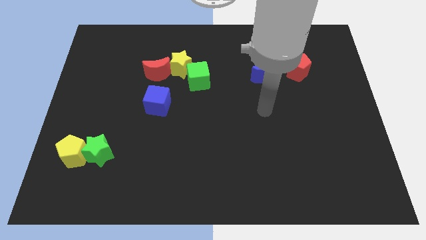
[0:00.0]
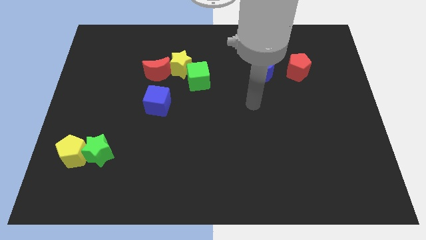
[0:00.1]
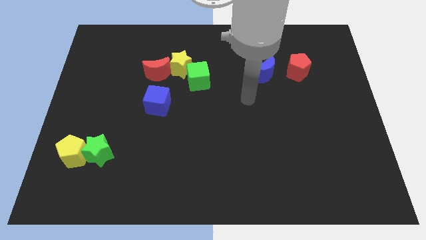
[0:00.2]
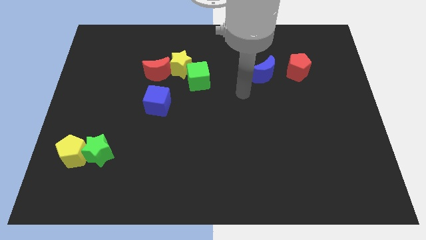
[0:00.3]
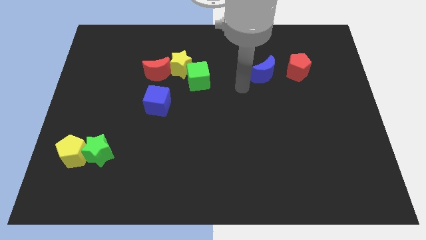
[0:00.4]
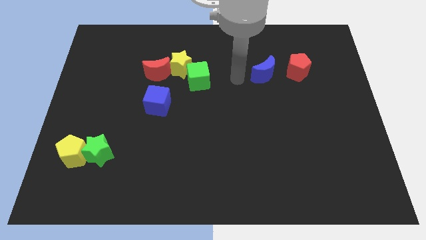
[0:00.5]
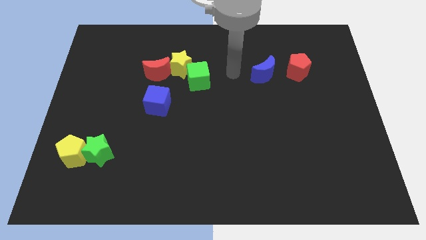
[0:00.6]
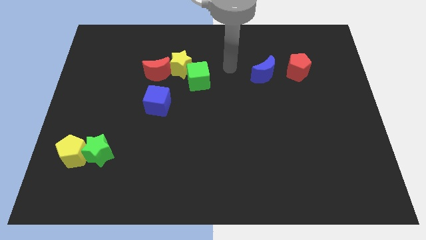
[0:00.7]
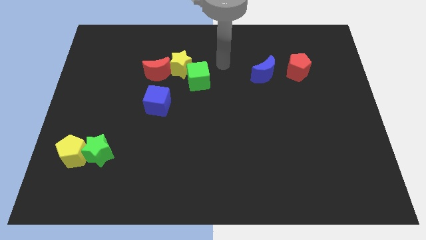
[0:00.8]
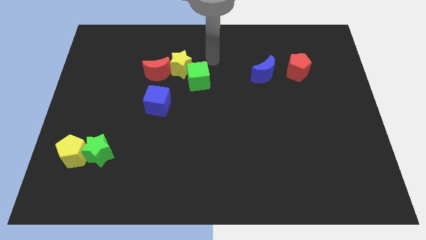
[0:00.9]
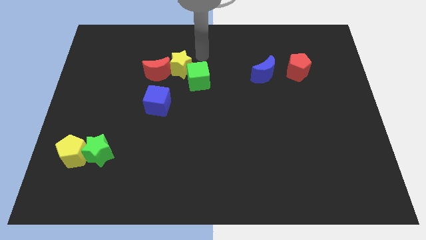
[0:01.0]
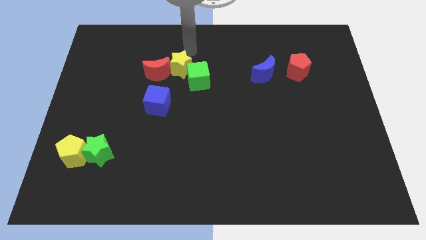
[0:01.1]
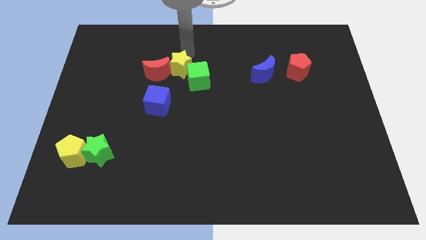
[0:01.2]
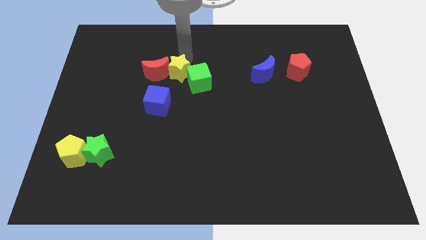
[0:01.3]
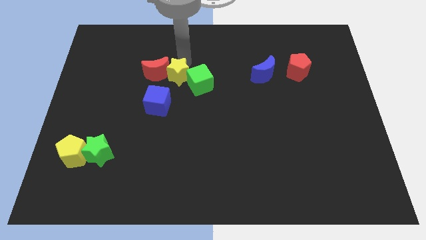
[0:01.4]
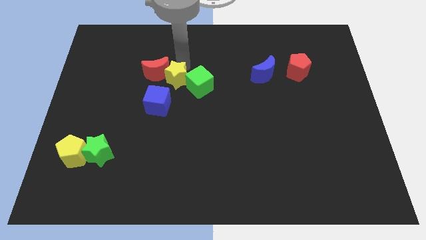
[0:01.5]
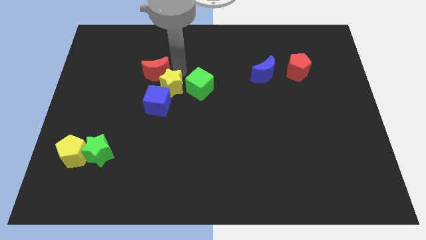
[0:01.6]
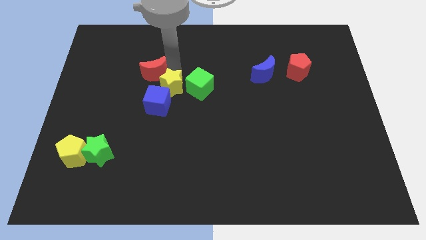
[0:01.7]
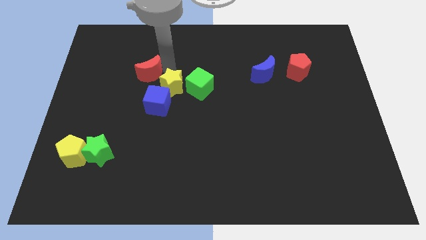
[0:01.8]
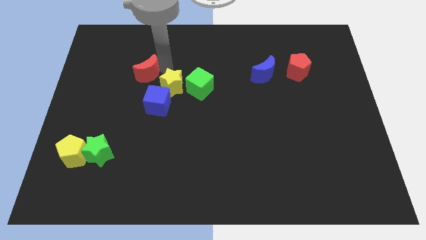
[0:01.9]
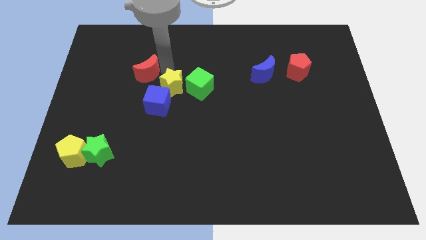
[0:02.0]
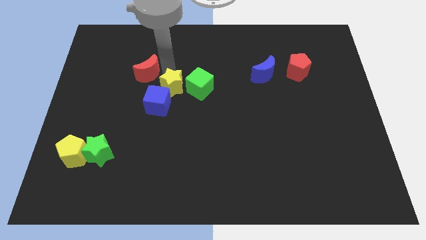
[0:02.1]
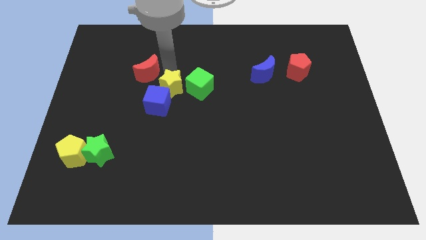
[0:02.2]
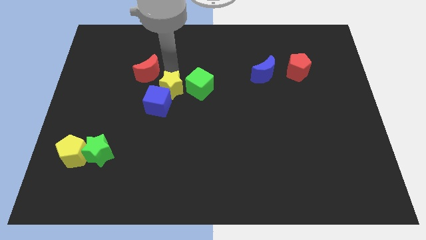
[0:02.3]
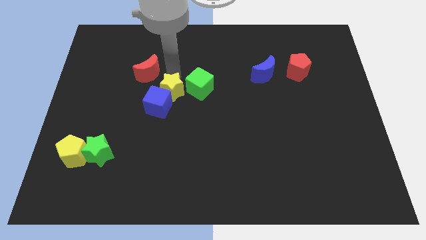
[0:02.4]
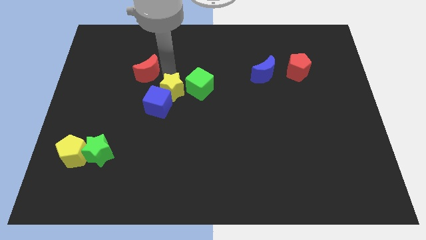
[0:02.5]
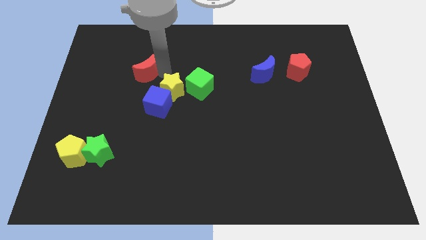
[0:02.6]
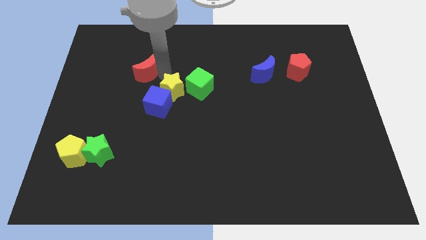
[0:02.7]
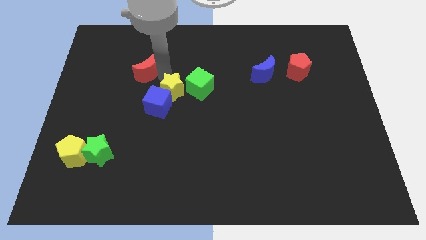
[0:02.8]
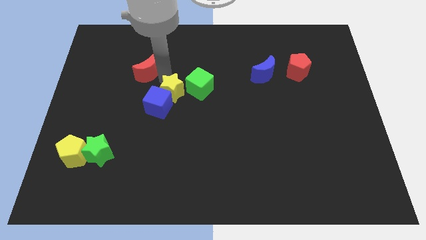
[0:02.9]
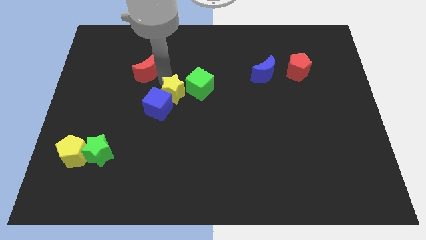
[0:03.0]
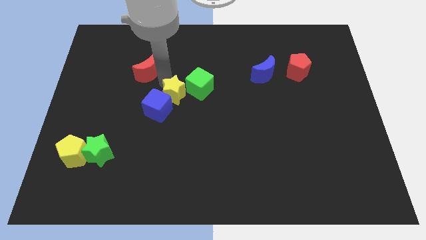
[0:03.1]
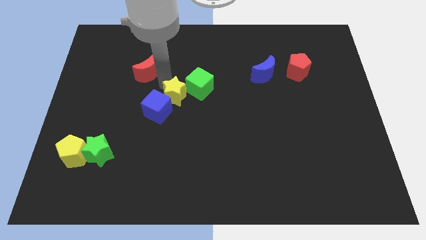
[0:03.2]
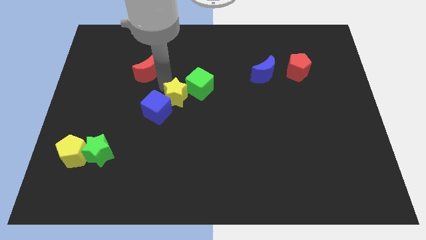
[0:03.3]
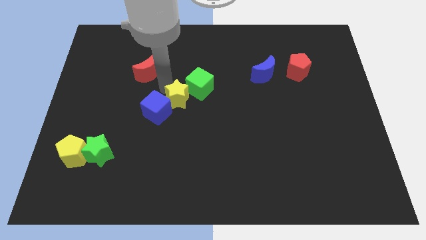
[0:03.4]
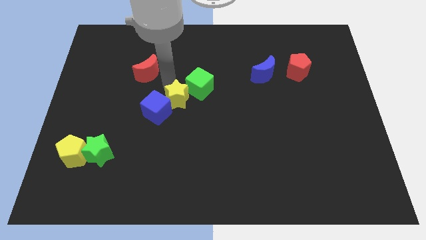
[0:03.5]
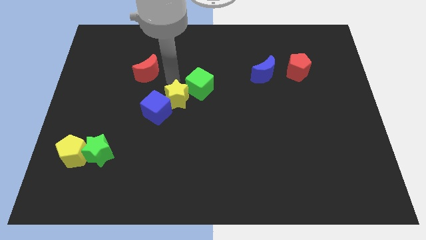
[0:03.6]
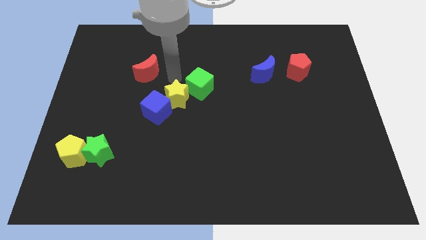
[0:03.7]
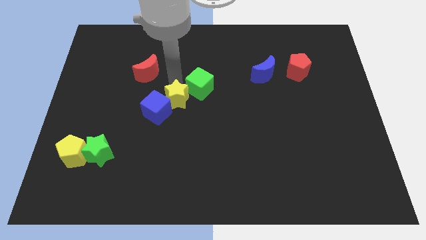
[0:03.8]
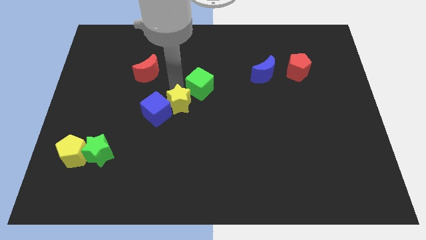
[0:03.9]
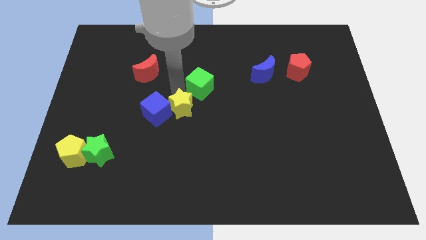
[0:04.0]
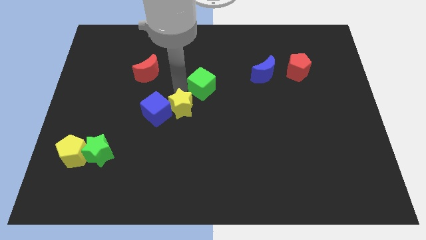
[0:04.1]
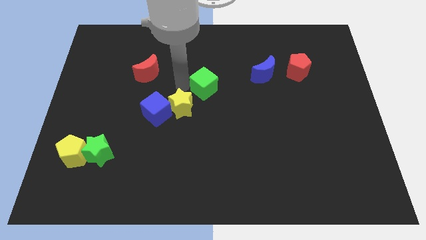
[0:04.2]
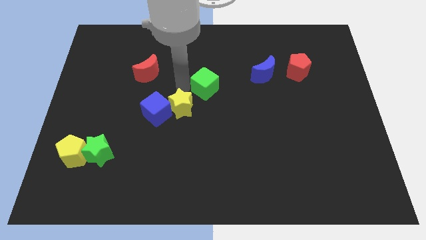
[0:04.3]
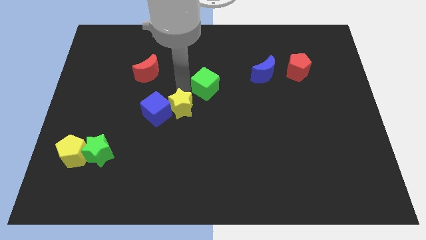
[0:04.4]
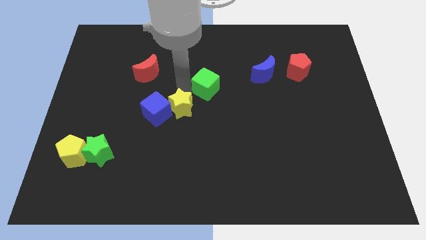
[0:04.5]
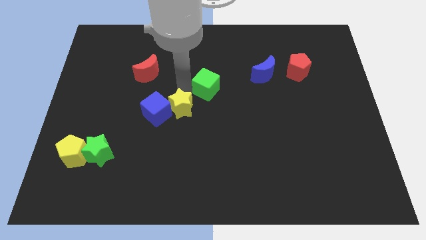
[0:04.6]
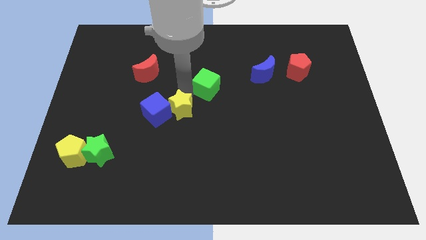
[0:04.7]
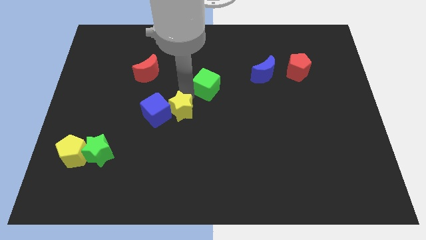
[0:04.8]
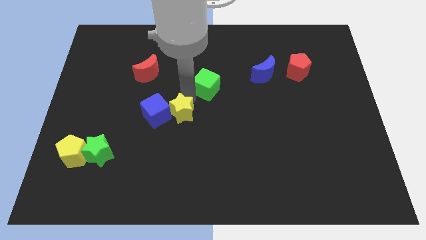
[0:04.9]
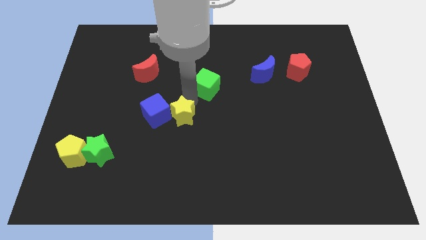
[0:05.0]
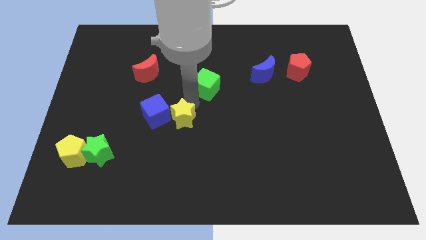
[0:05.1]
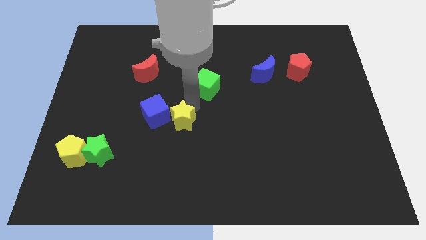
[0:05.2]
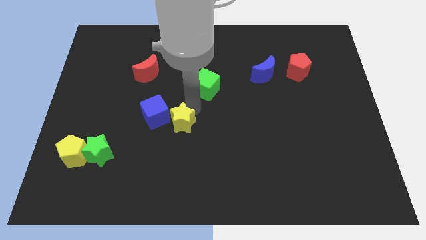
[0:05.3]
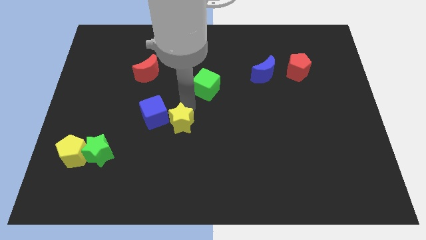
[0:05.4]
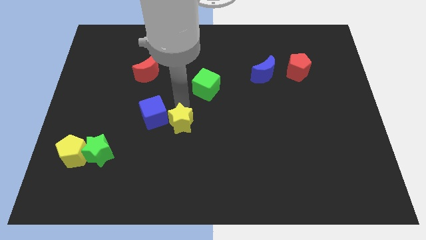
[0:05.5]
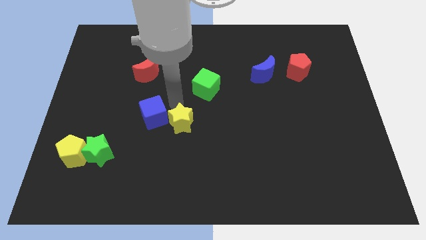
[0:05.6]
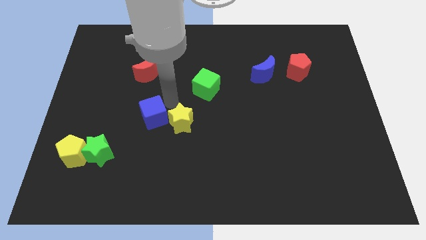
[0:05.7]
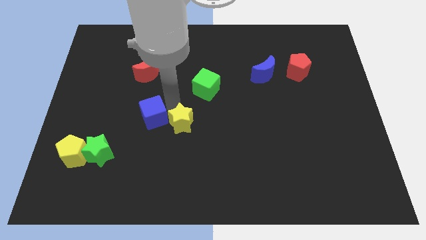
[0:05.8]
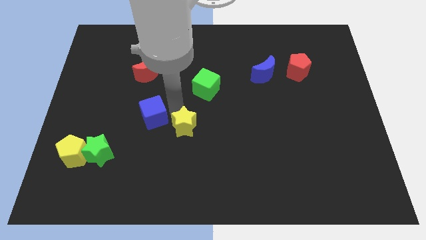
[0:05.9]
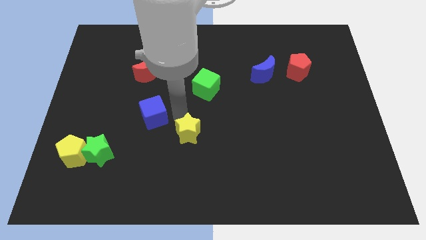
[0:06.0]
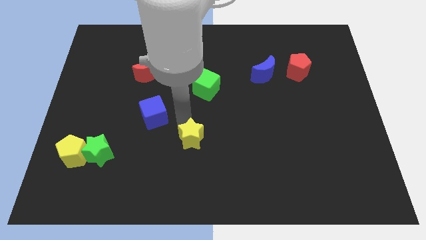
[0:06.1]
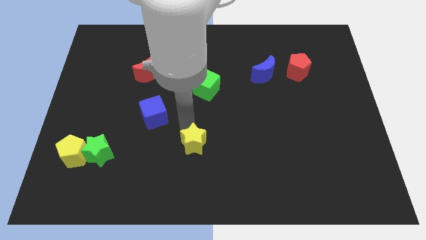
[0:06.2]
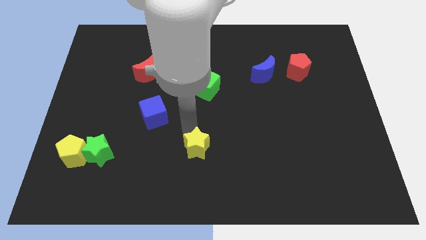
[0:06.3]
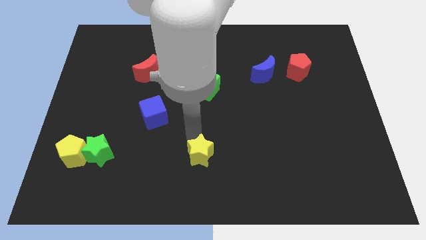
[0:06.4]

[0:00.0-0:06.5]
put the yellow star to the bottom side

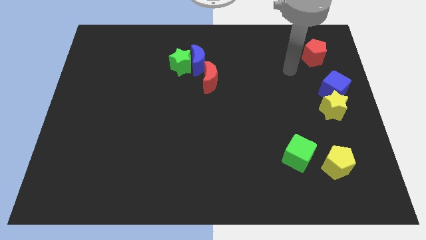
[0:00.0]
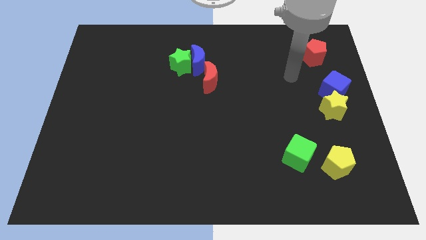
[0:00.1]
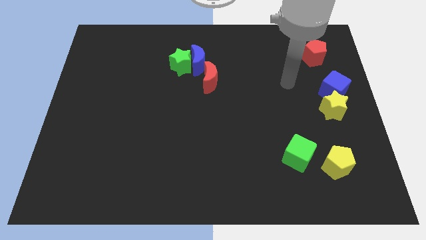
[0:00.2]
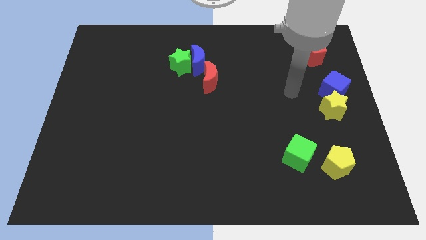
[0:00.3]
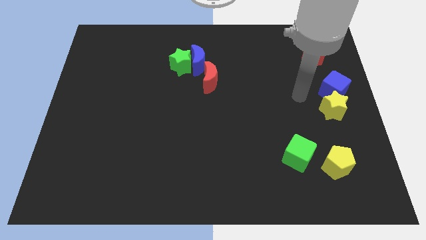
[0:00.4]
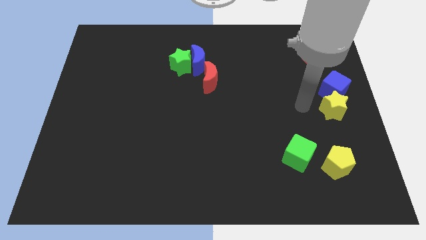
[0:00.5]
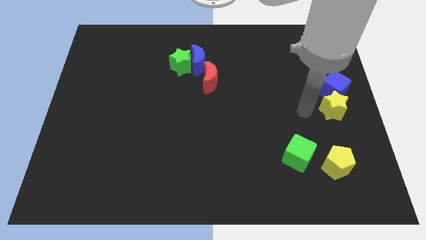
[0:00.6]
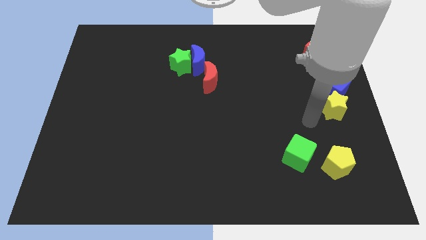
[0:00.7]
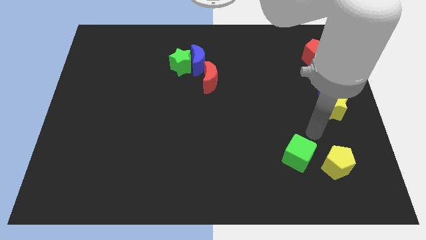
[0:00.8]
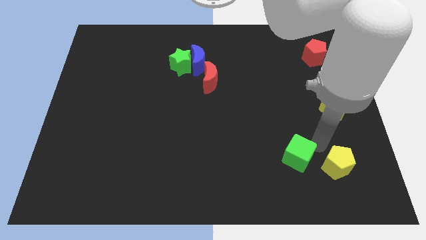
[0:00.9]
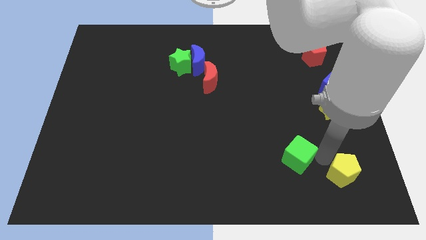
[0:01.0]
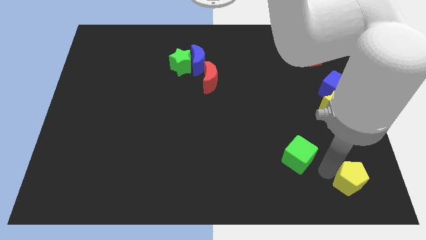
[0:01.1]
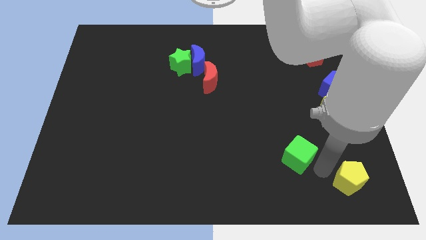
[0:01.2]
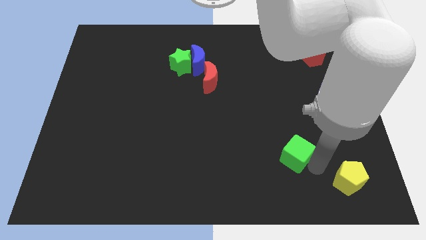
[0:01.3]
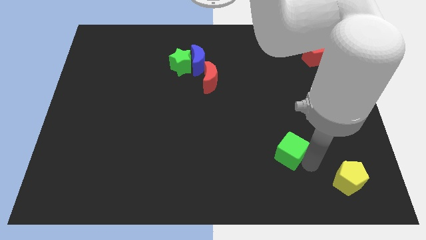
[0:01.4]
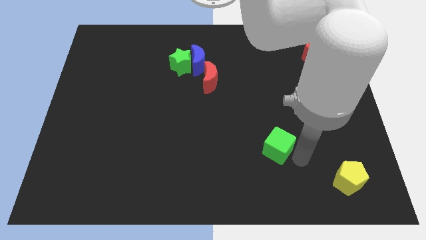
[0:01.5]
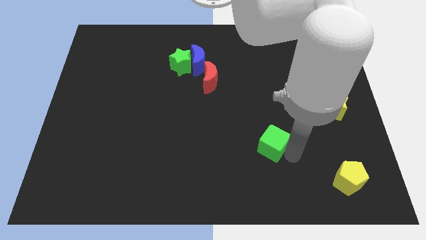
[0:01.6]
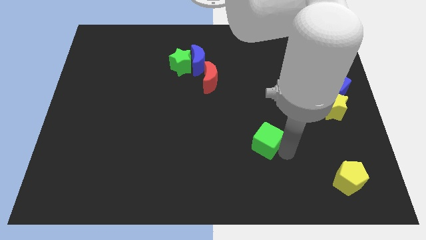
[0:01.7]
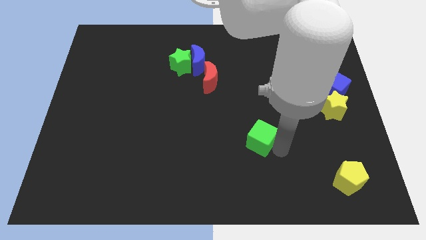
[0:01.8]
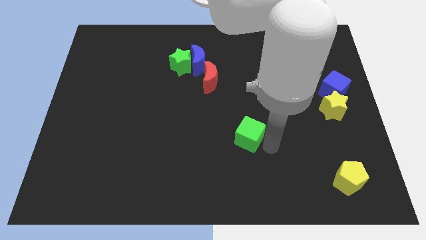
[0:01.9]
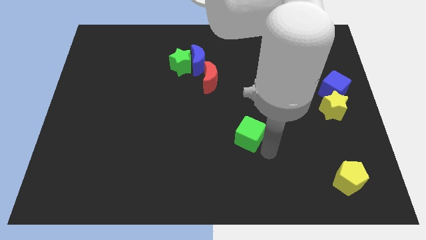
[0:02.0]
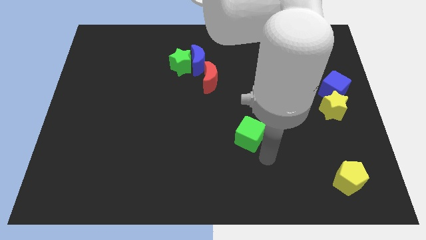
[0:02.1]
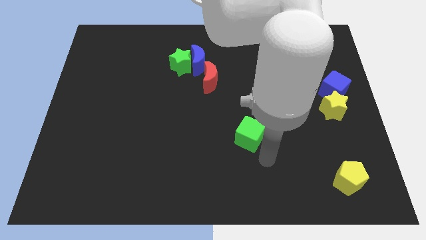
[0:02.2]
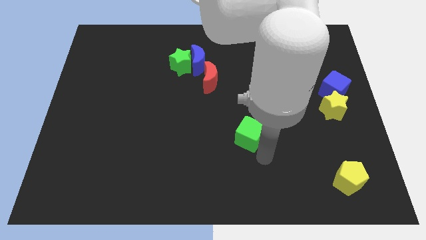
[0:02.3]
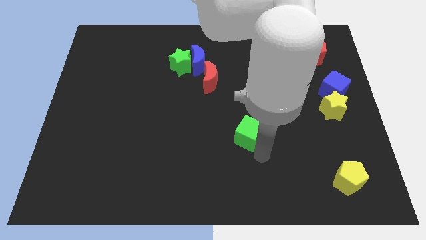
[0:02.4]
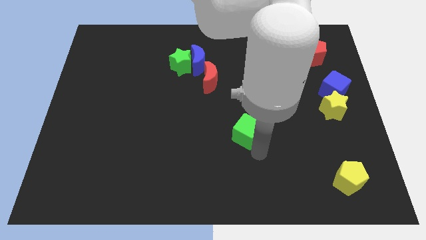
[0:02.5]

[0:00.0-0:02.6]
move the green cube to the center
